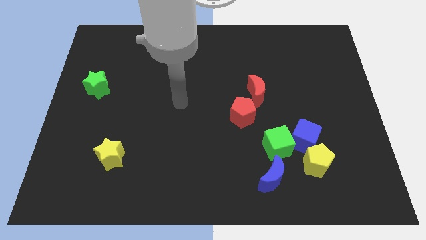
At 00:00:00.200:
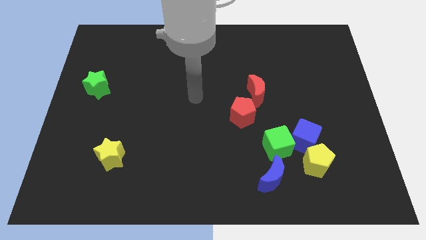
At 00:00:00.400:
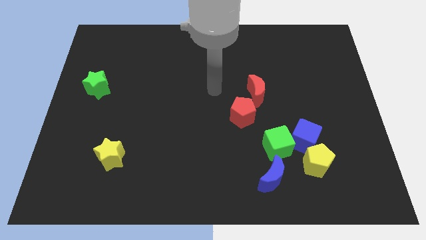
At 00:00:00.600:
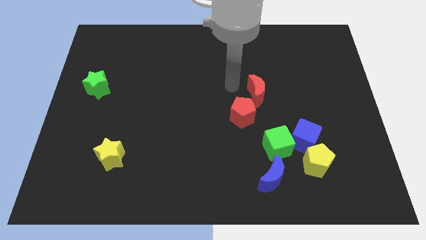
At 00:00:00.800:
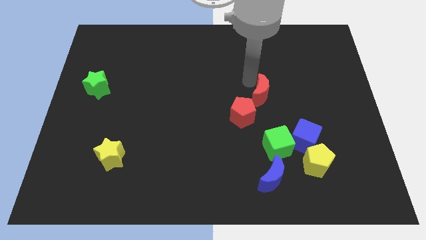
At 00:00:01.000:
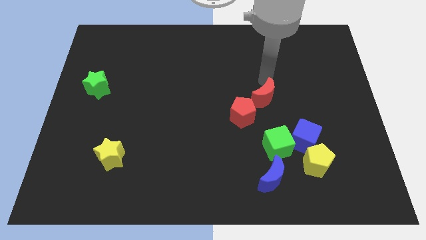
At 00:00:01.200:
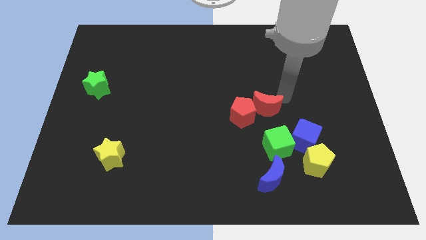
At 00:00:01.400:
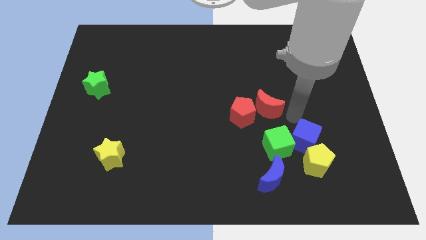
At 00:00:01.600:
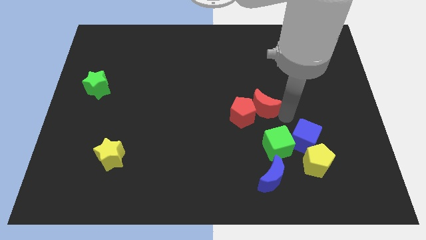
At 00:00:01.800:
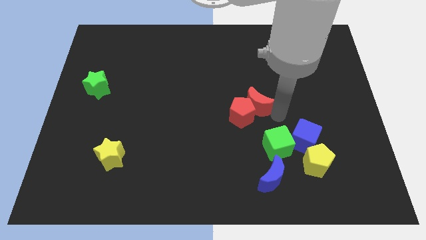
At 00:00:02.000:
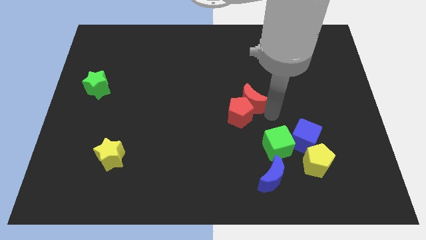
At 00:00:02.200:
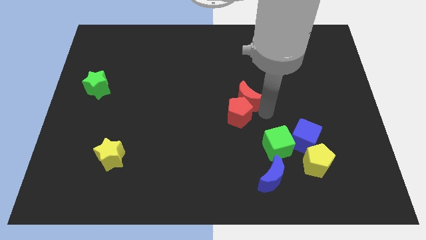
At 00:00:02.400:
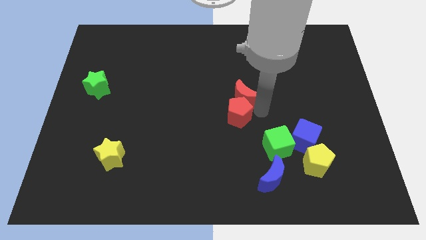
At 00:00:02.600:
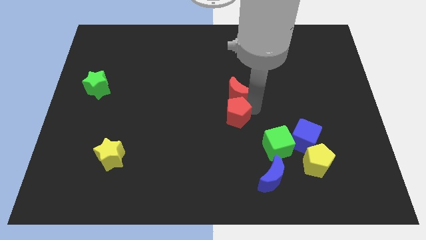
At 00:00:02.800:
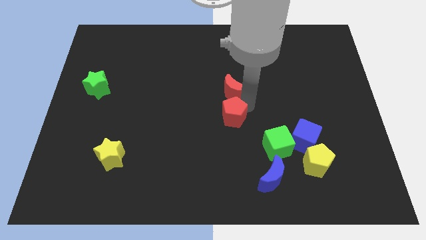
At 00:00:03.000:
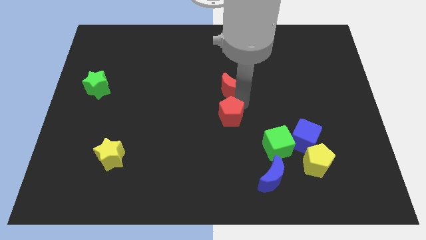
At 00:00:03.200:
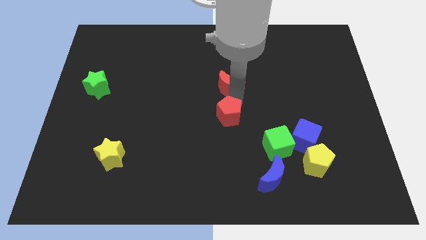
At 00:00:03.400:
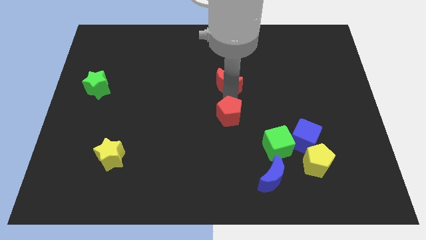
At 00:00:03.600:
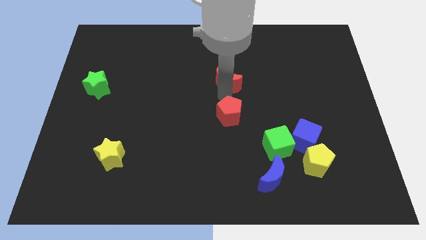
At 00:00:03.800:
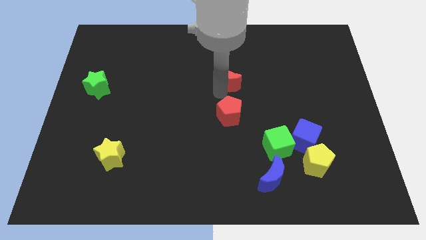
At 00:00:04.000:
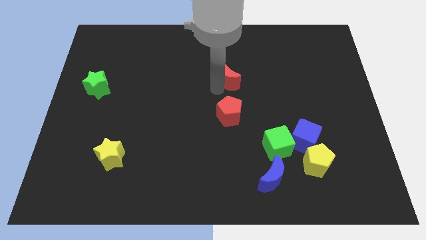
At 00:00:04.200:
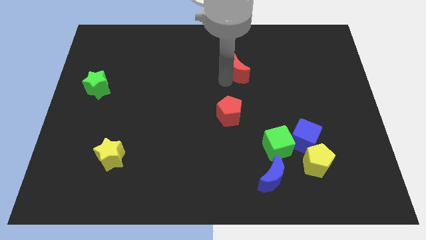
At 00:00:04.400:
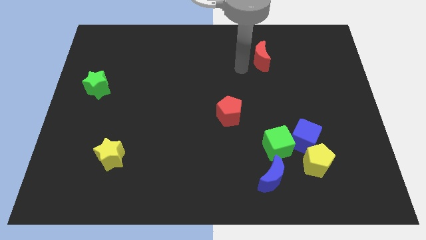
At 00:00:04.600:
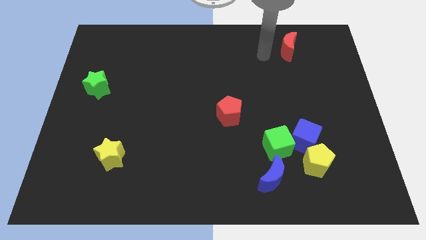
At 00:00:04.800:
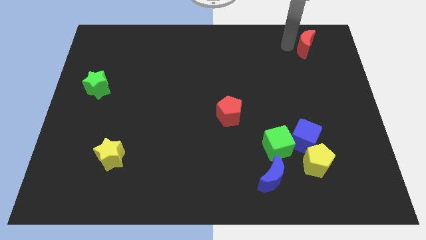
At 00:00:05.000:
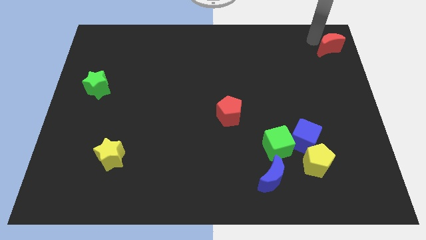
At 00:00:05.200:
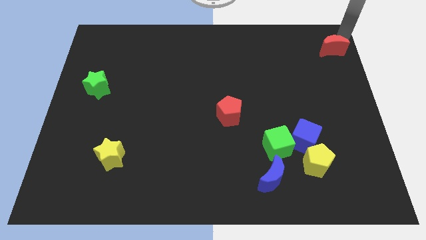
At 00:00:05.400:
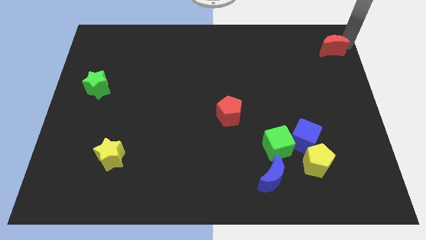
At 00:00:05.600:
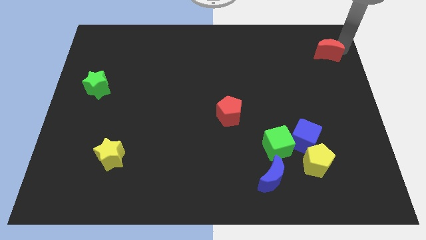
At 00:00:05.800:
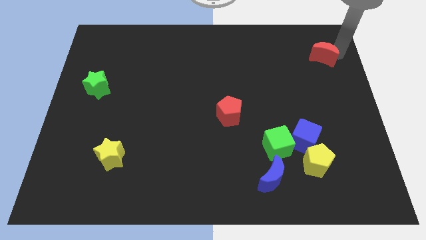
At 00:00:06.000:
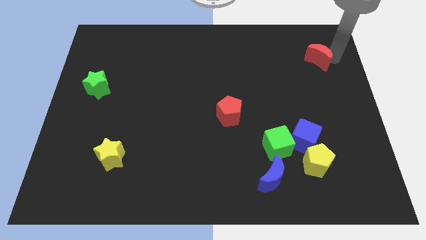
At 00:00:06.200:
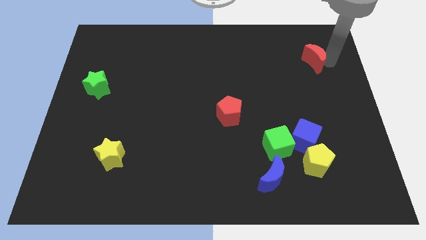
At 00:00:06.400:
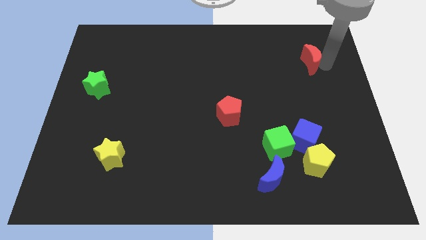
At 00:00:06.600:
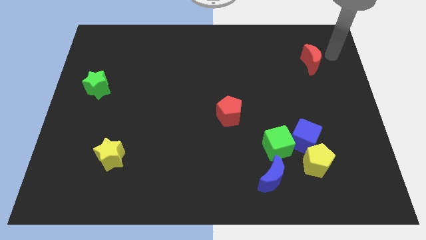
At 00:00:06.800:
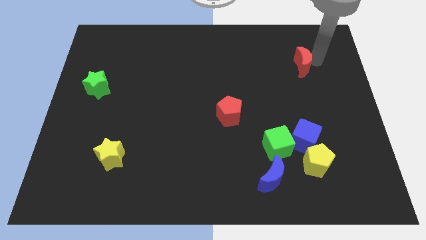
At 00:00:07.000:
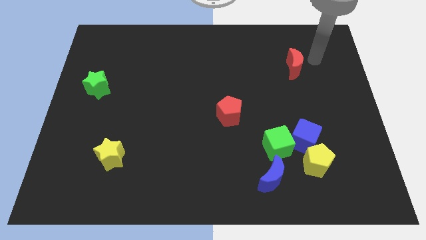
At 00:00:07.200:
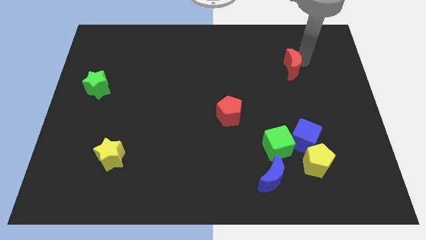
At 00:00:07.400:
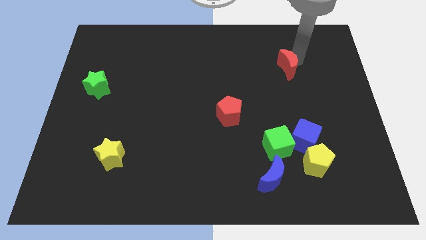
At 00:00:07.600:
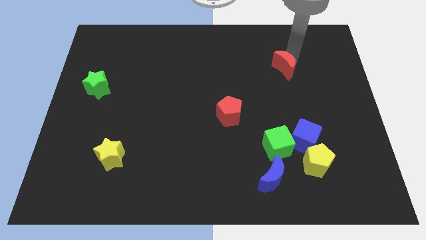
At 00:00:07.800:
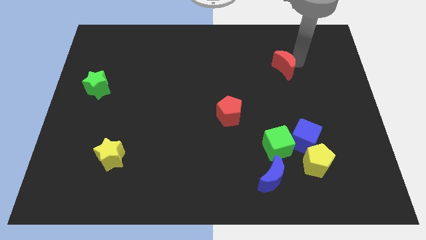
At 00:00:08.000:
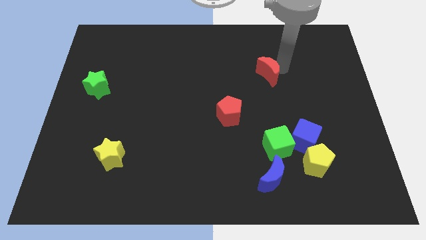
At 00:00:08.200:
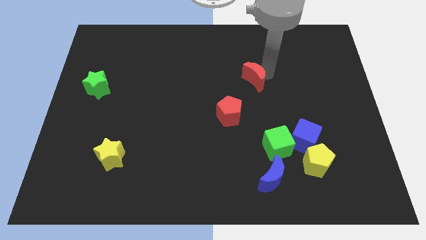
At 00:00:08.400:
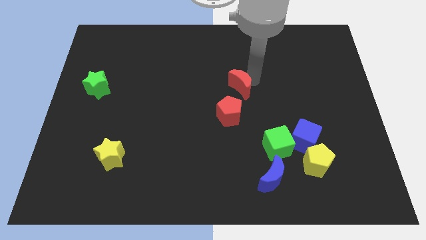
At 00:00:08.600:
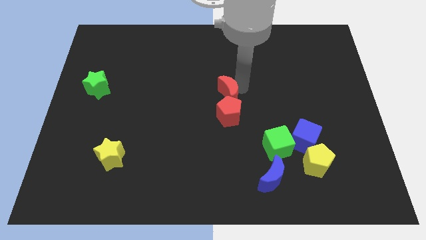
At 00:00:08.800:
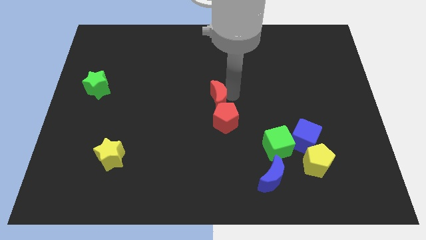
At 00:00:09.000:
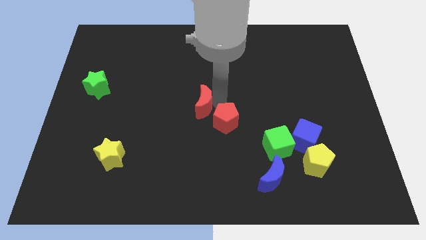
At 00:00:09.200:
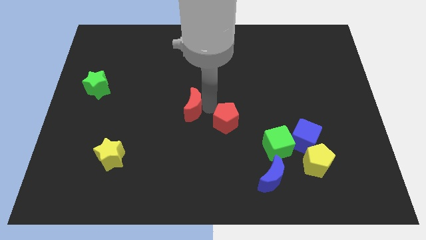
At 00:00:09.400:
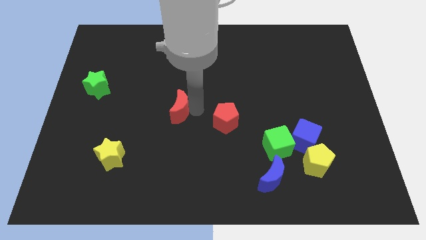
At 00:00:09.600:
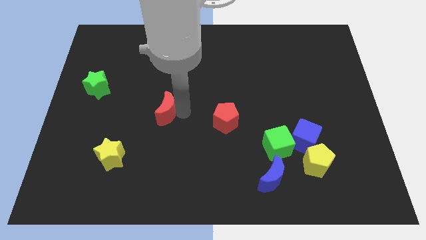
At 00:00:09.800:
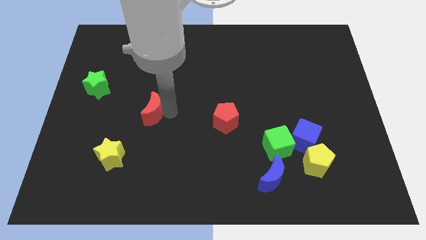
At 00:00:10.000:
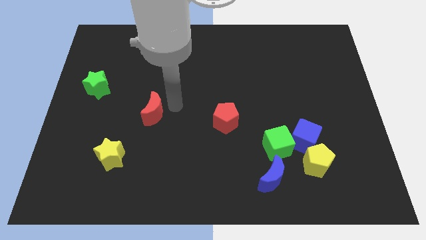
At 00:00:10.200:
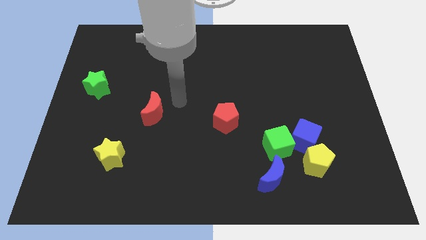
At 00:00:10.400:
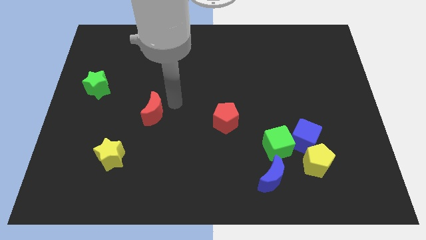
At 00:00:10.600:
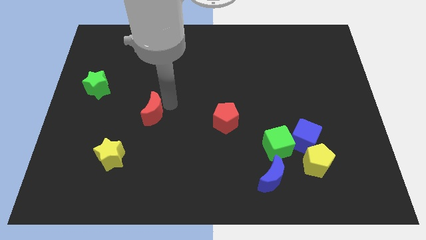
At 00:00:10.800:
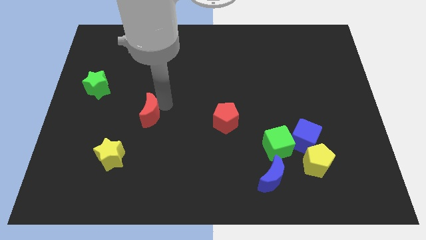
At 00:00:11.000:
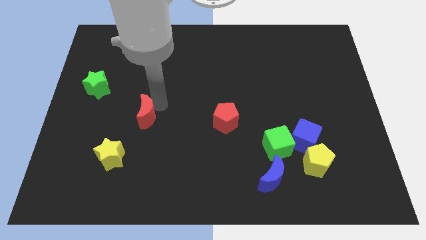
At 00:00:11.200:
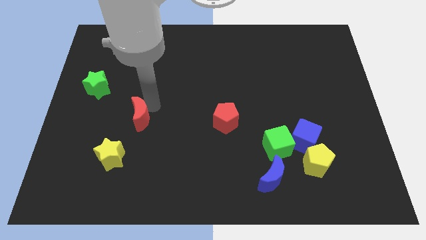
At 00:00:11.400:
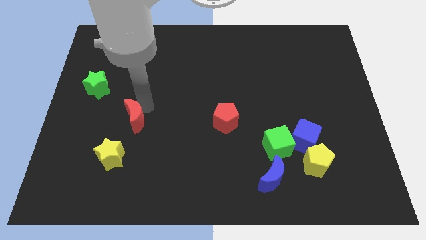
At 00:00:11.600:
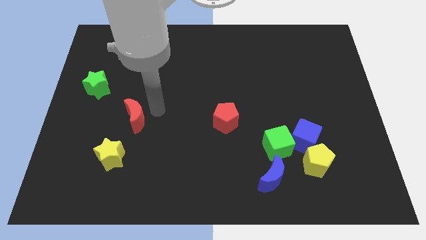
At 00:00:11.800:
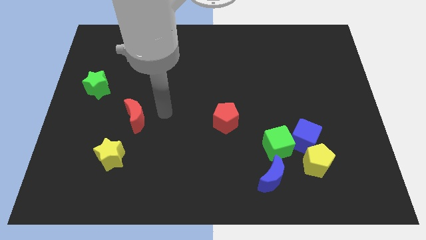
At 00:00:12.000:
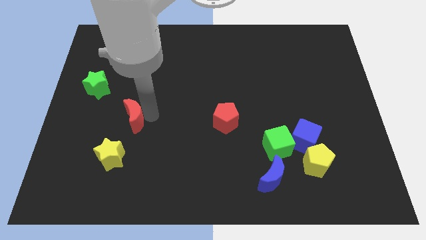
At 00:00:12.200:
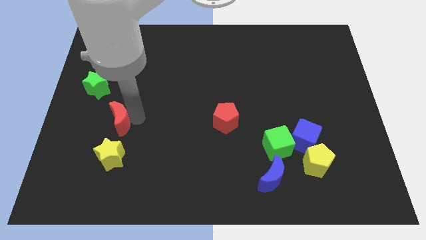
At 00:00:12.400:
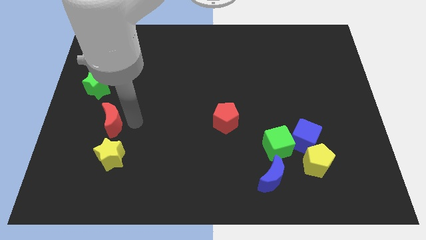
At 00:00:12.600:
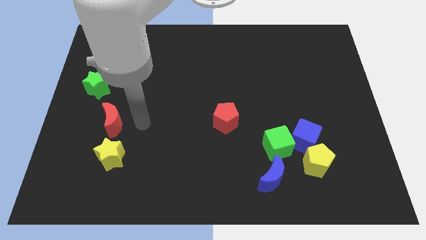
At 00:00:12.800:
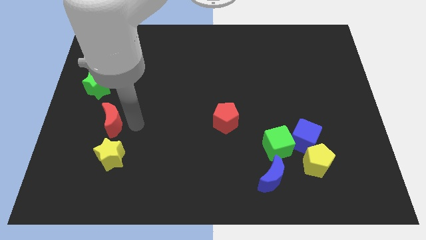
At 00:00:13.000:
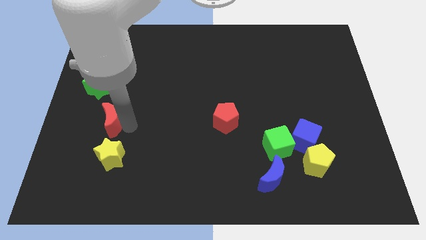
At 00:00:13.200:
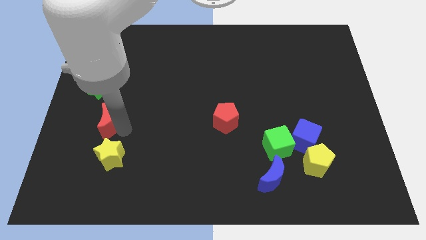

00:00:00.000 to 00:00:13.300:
move the red moon below the green star
